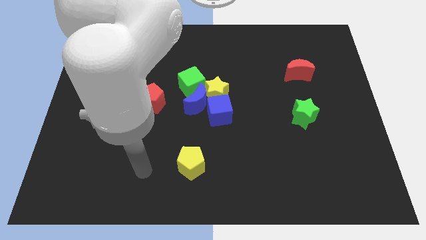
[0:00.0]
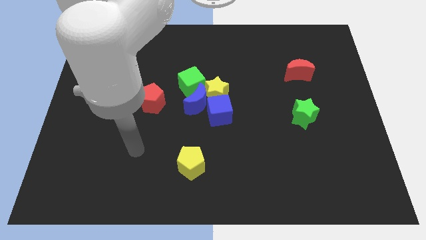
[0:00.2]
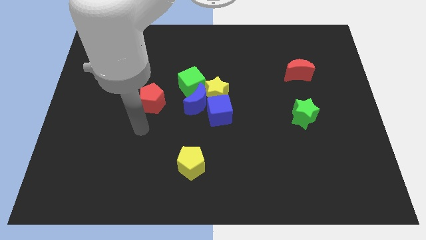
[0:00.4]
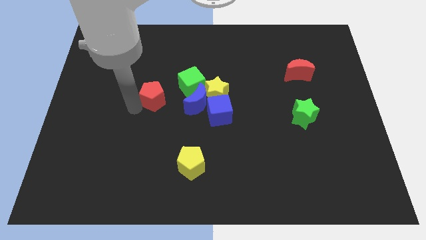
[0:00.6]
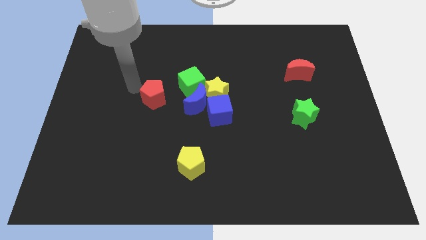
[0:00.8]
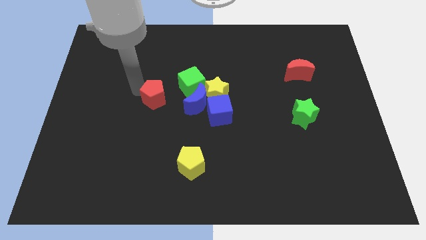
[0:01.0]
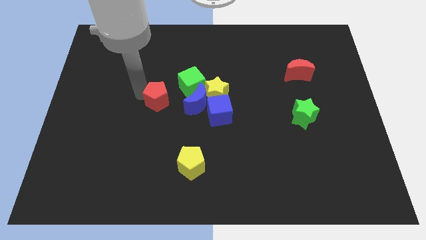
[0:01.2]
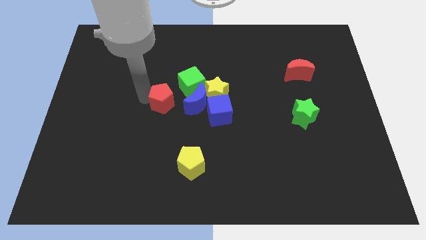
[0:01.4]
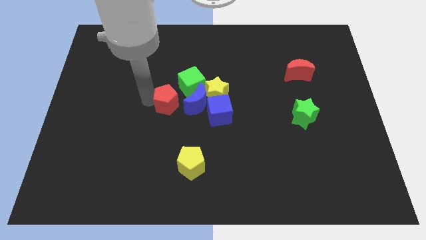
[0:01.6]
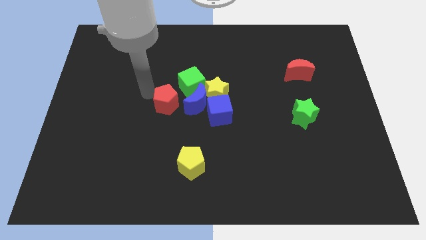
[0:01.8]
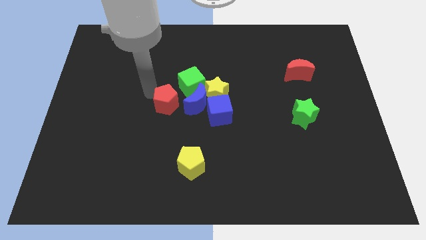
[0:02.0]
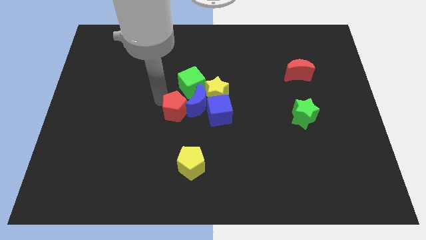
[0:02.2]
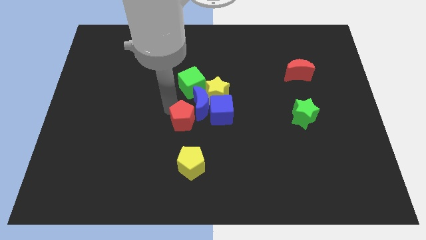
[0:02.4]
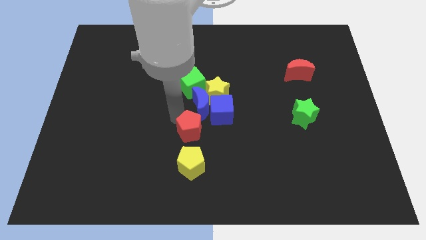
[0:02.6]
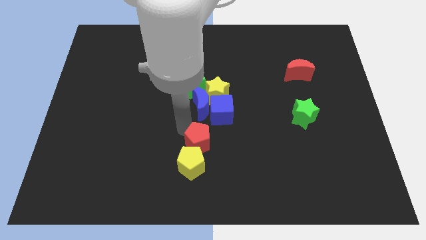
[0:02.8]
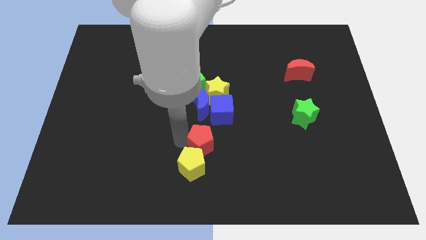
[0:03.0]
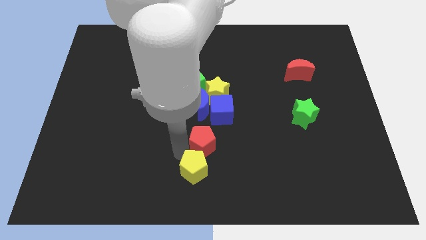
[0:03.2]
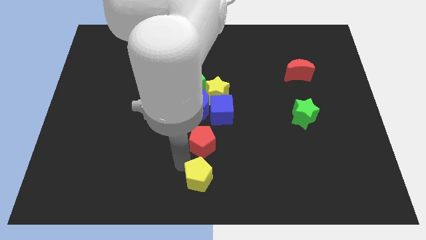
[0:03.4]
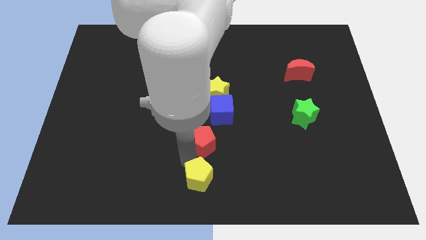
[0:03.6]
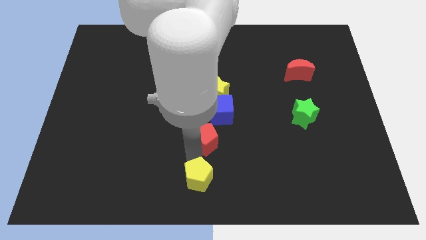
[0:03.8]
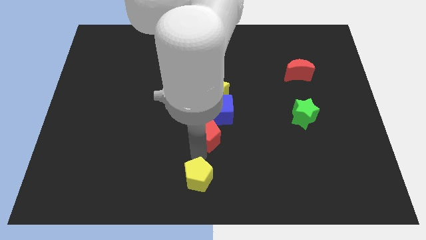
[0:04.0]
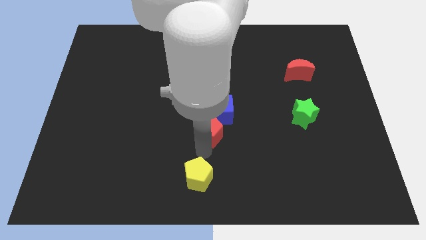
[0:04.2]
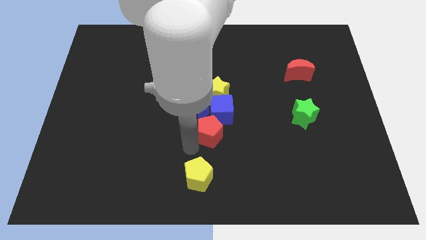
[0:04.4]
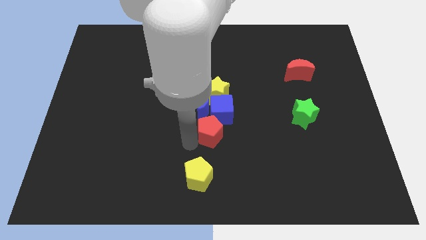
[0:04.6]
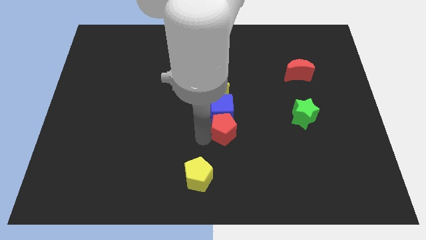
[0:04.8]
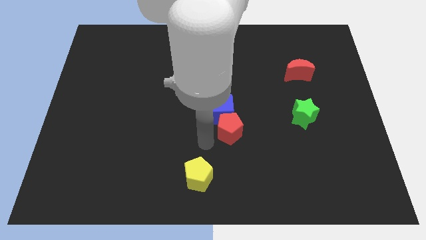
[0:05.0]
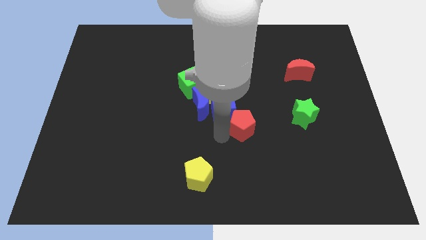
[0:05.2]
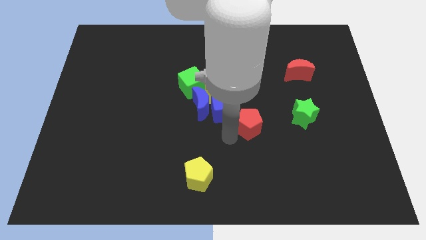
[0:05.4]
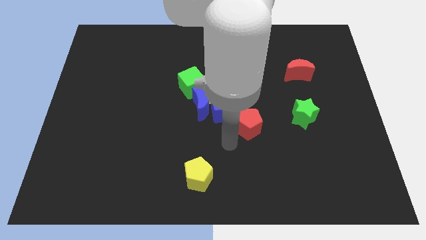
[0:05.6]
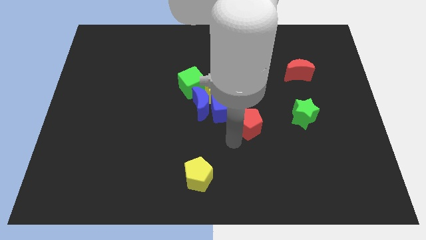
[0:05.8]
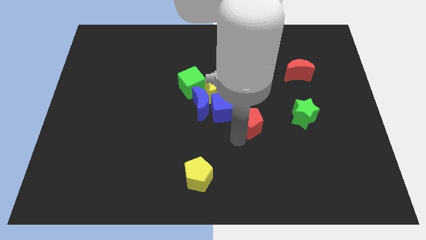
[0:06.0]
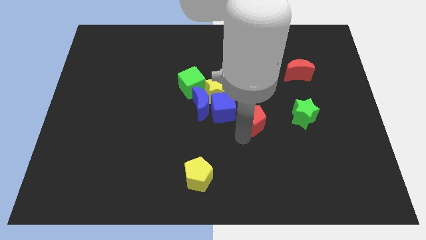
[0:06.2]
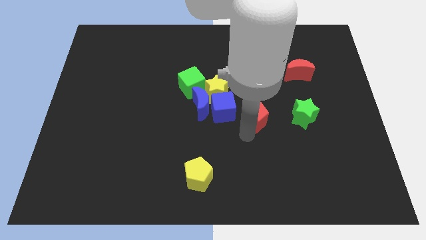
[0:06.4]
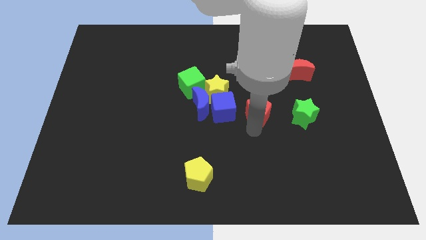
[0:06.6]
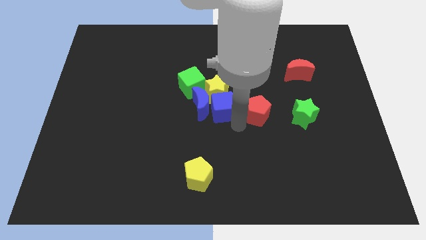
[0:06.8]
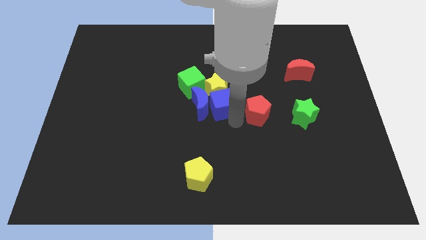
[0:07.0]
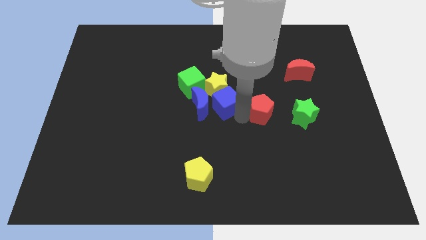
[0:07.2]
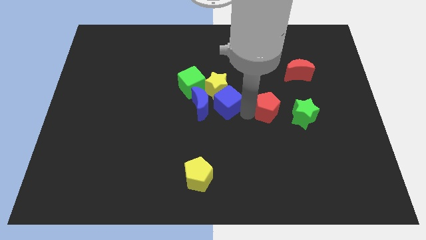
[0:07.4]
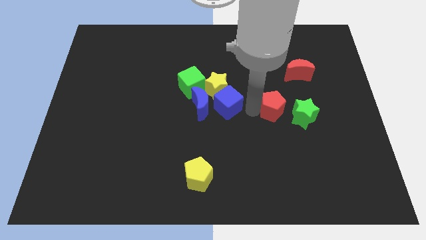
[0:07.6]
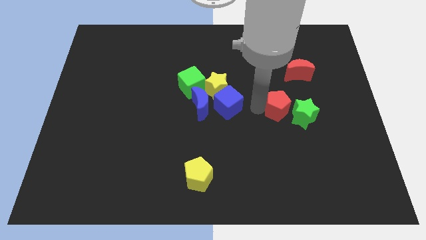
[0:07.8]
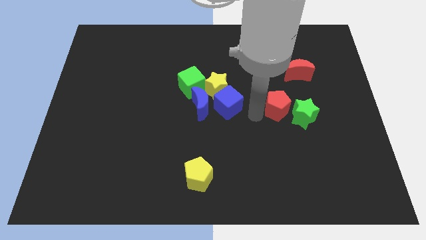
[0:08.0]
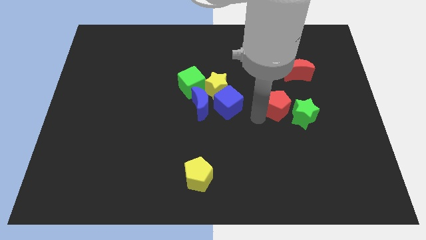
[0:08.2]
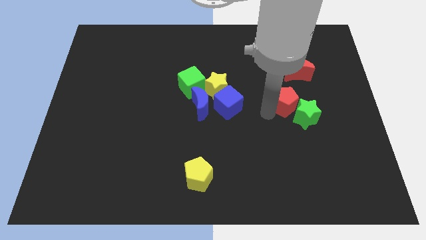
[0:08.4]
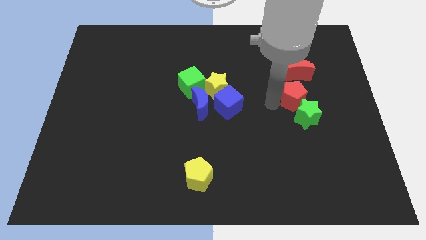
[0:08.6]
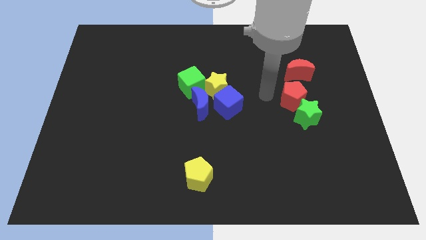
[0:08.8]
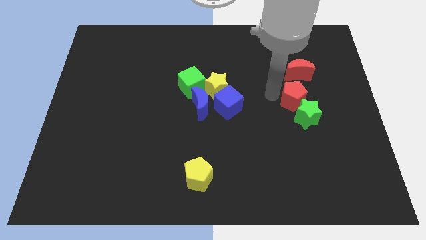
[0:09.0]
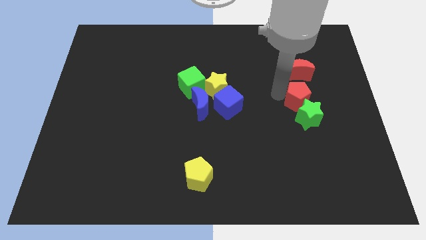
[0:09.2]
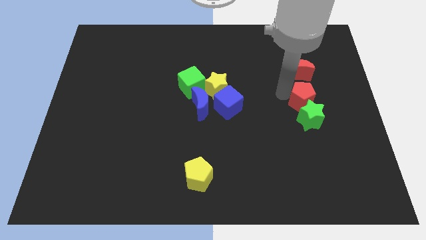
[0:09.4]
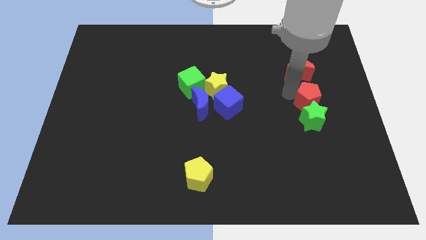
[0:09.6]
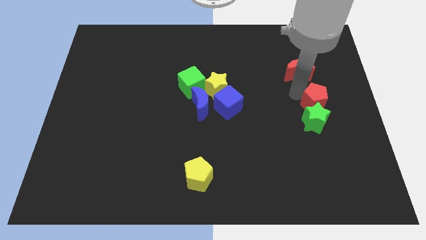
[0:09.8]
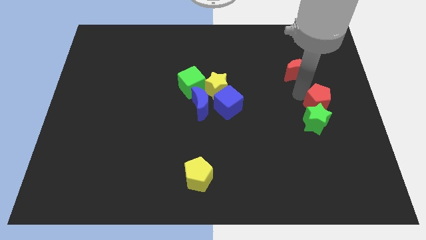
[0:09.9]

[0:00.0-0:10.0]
push the red pentagon to the right side of the board

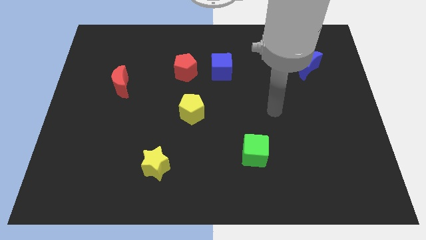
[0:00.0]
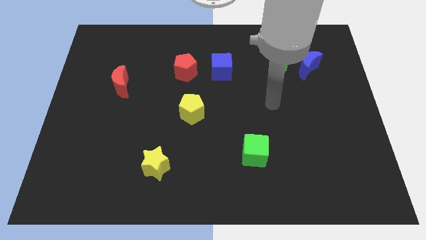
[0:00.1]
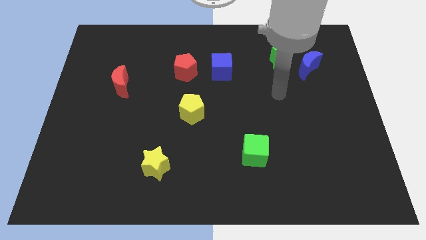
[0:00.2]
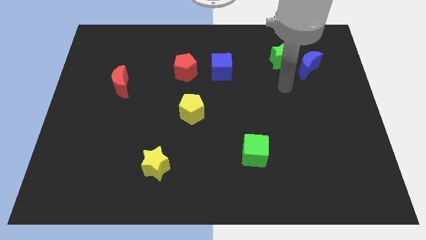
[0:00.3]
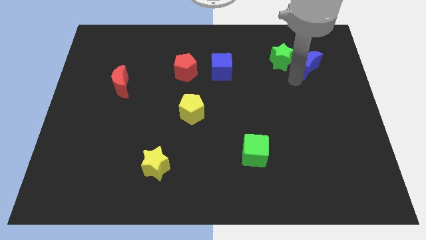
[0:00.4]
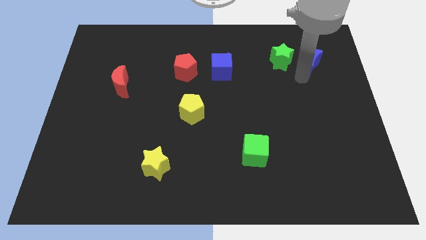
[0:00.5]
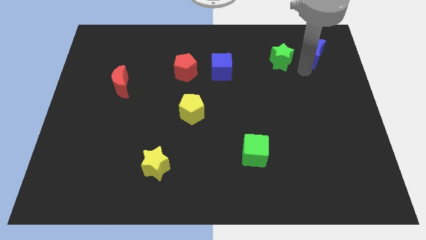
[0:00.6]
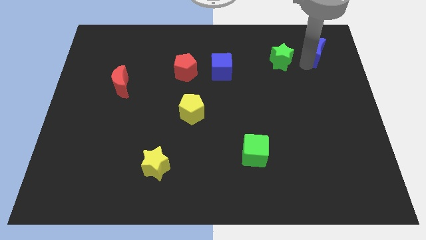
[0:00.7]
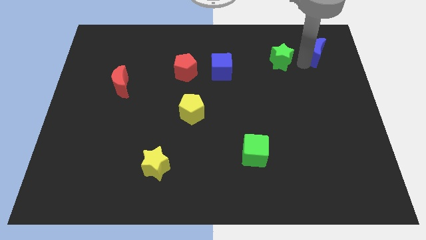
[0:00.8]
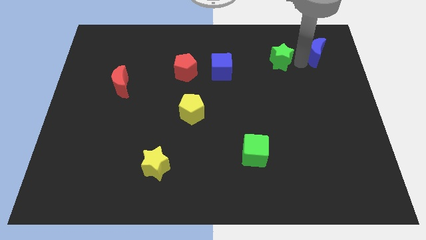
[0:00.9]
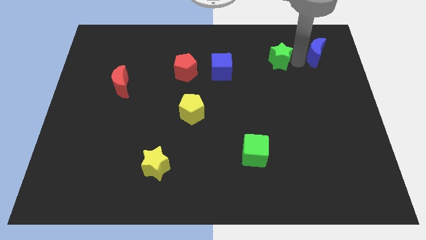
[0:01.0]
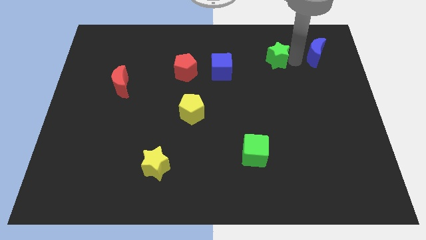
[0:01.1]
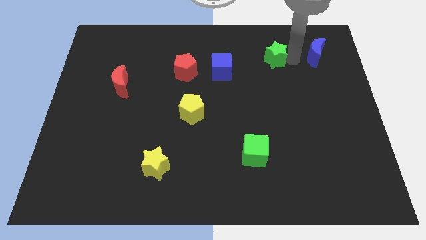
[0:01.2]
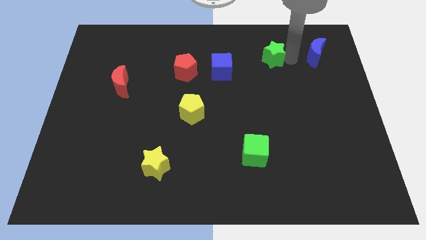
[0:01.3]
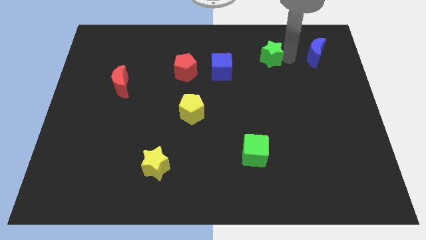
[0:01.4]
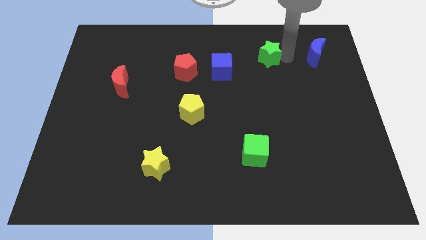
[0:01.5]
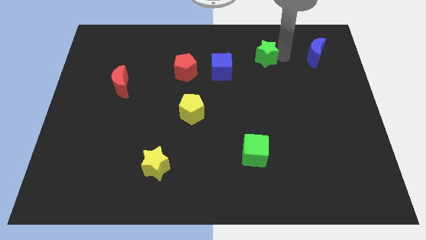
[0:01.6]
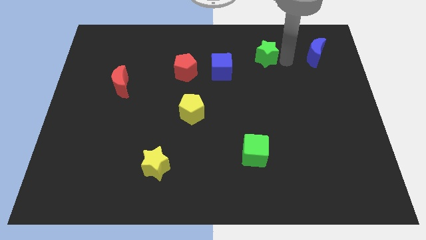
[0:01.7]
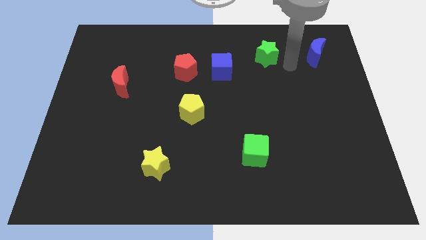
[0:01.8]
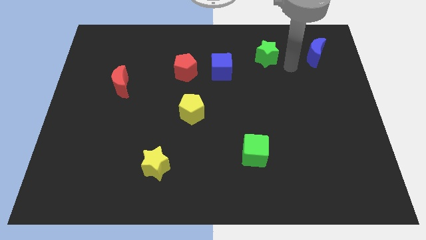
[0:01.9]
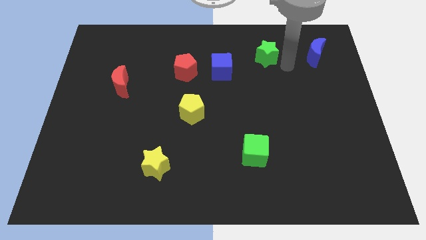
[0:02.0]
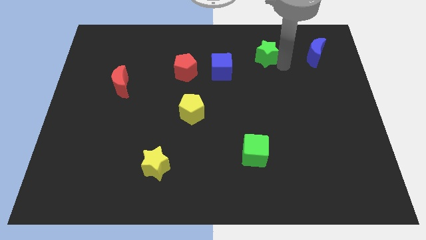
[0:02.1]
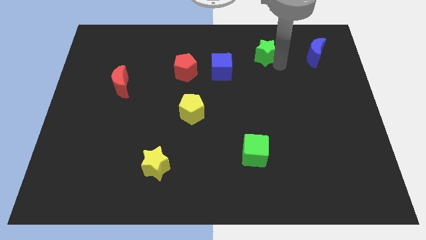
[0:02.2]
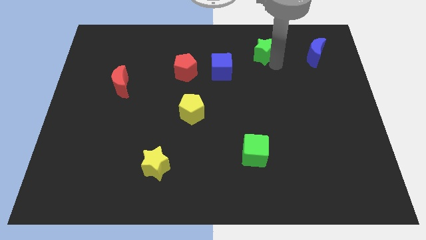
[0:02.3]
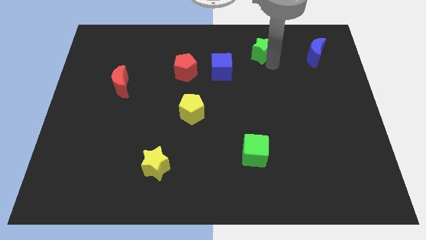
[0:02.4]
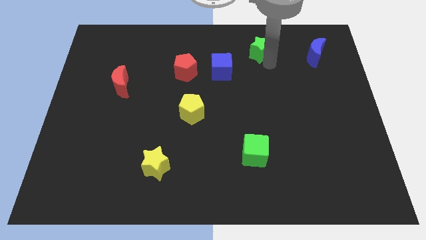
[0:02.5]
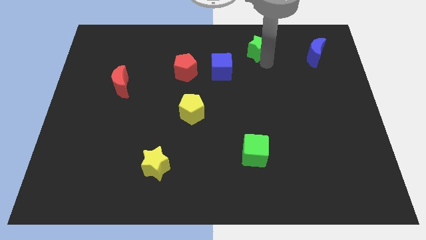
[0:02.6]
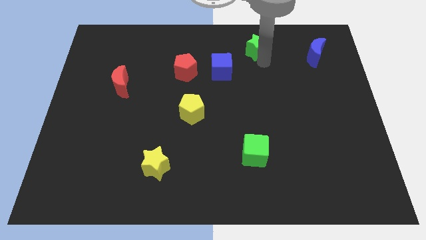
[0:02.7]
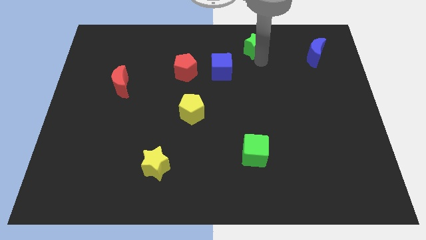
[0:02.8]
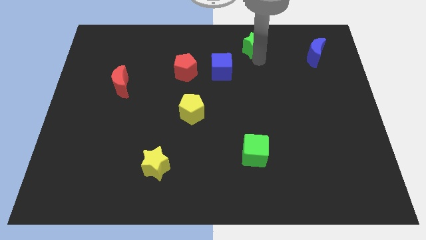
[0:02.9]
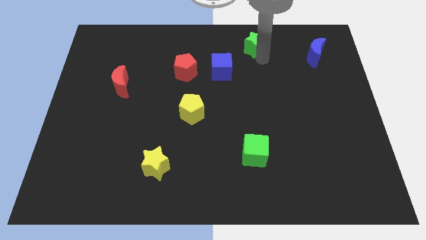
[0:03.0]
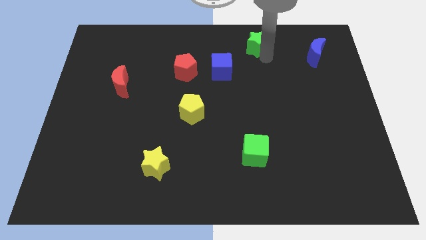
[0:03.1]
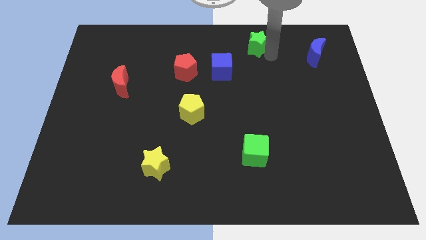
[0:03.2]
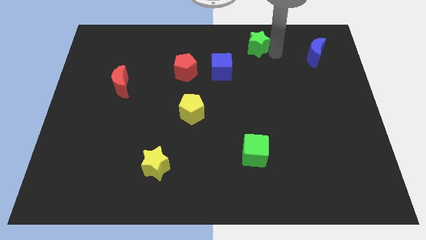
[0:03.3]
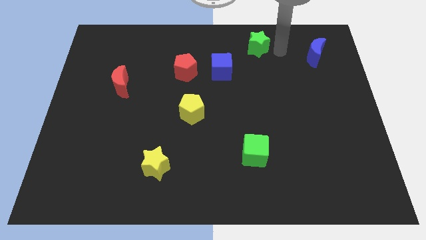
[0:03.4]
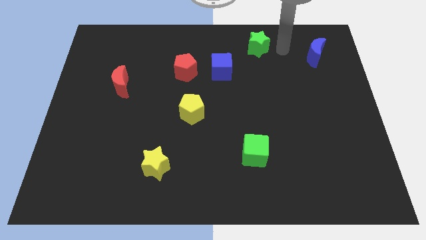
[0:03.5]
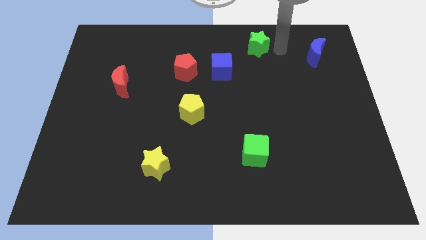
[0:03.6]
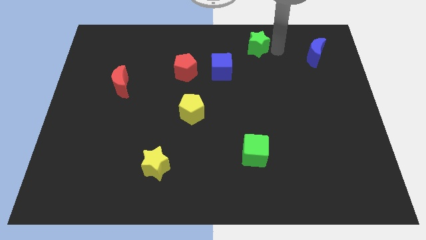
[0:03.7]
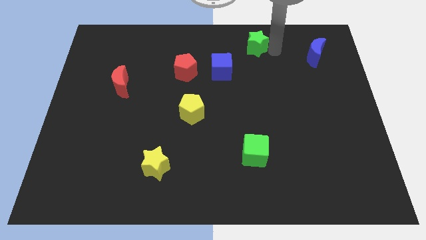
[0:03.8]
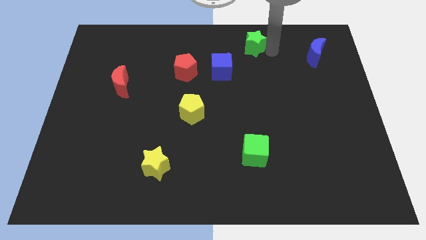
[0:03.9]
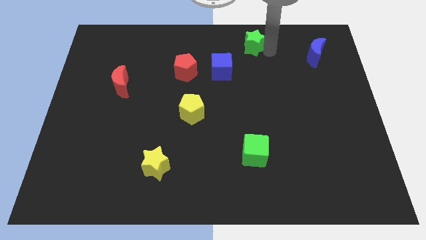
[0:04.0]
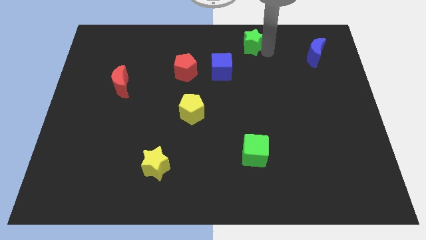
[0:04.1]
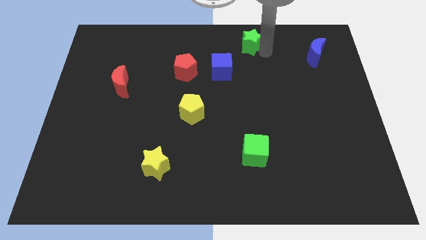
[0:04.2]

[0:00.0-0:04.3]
slide the green star to the top side
